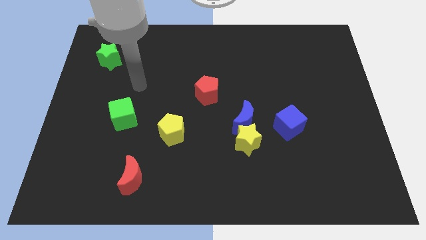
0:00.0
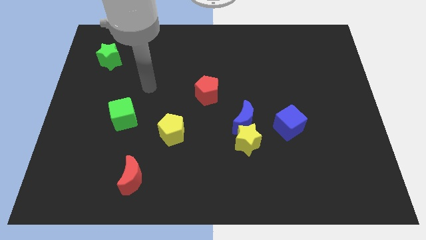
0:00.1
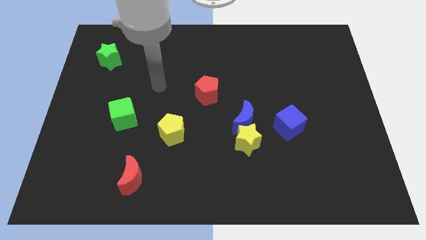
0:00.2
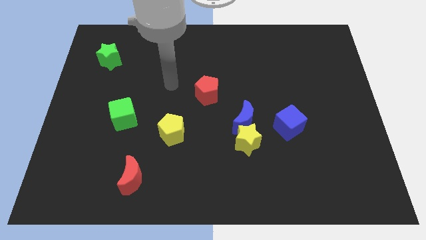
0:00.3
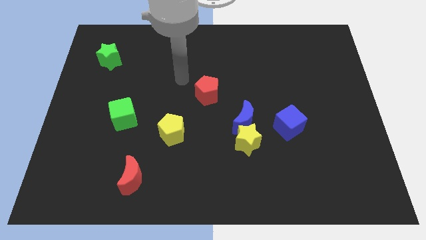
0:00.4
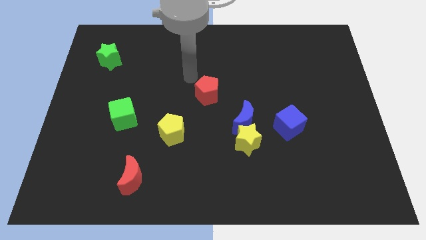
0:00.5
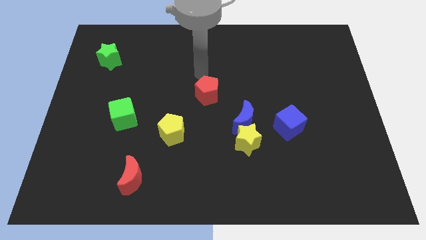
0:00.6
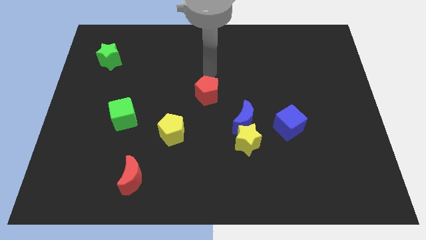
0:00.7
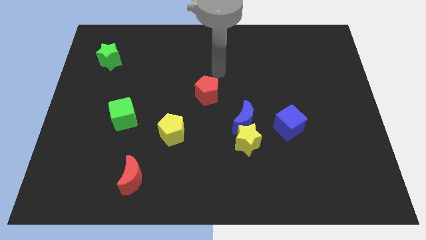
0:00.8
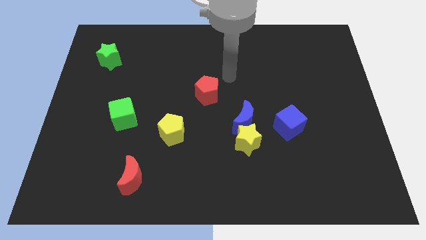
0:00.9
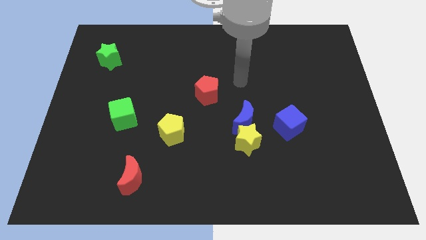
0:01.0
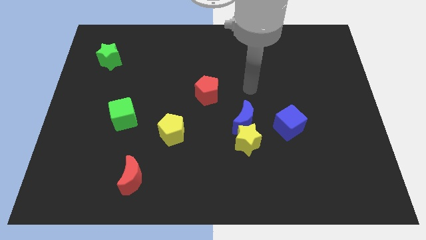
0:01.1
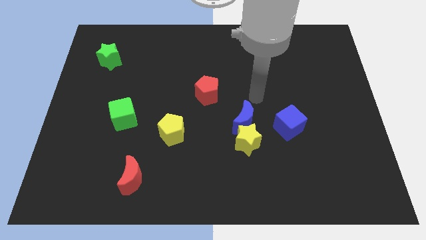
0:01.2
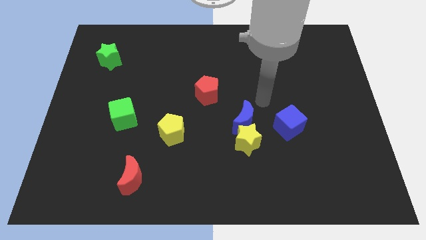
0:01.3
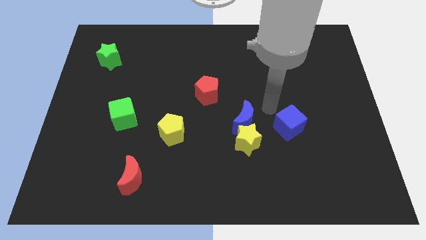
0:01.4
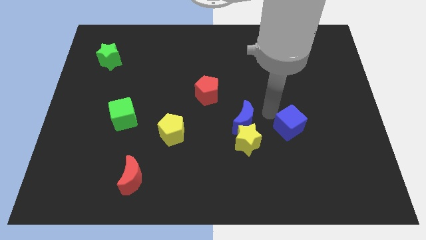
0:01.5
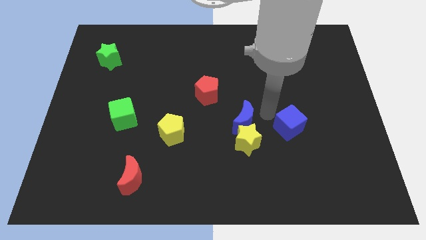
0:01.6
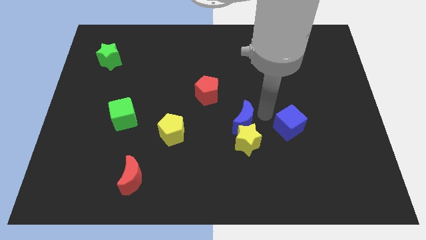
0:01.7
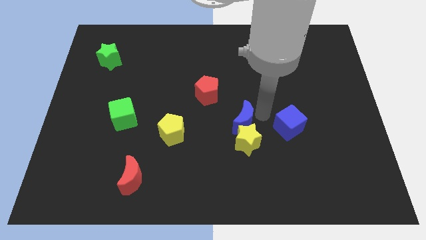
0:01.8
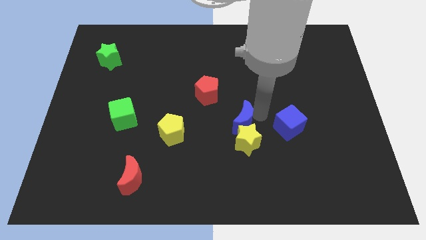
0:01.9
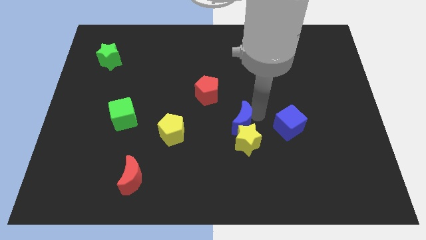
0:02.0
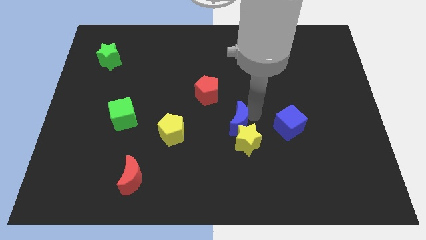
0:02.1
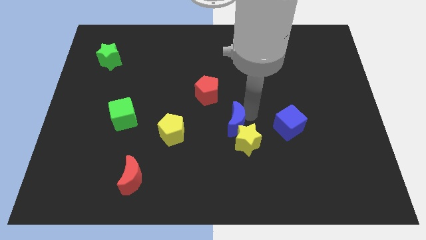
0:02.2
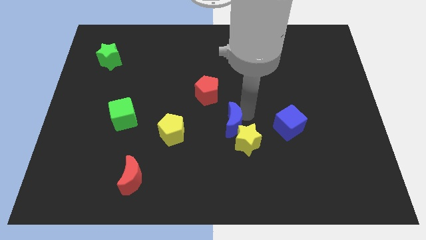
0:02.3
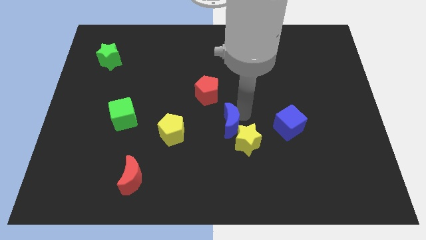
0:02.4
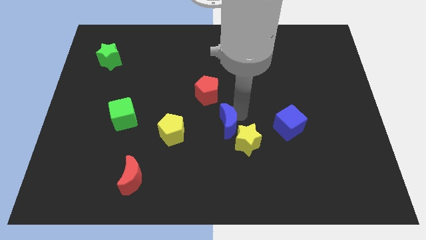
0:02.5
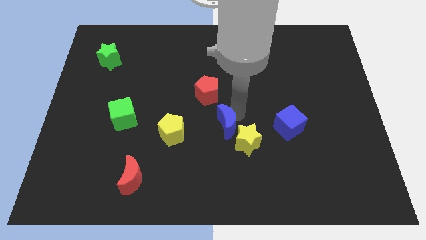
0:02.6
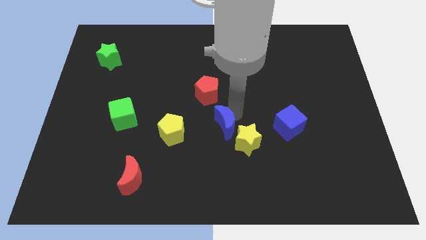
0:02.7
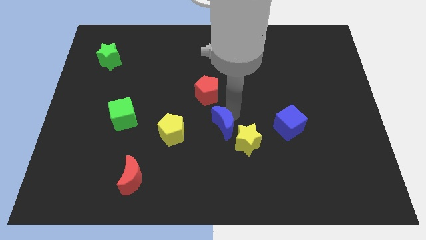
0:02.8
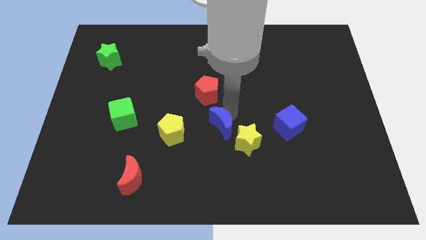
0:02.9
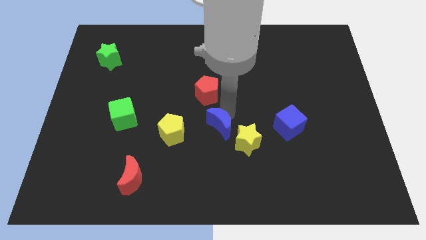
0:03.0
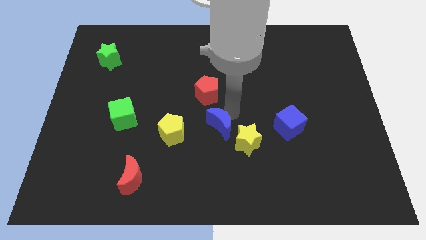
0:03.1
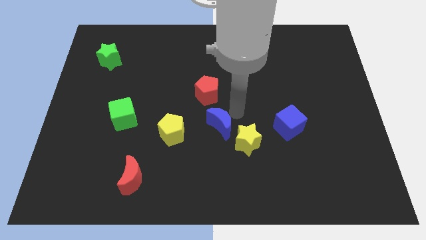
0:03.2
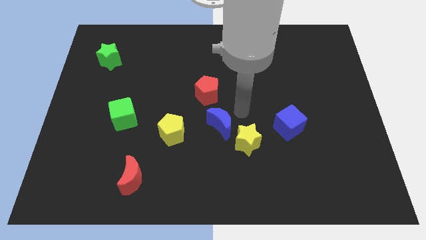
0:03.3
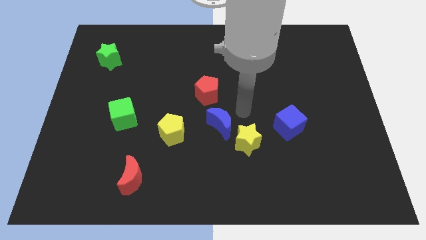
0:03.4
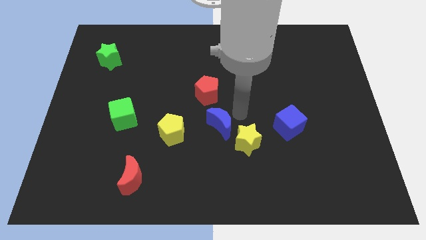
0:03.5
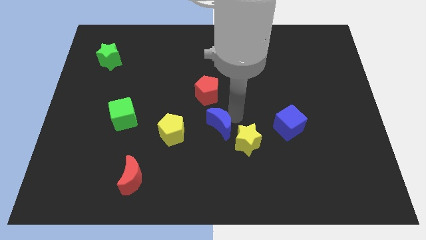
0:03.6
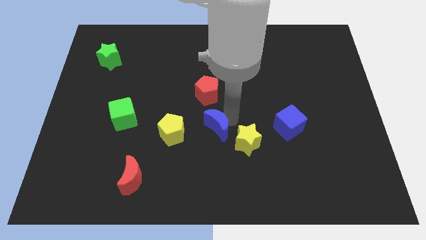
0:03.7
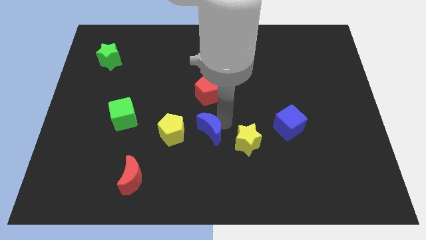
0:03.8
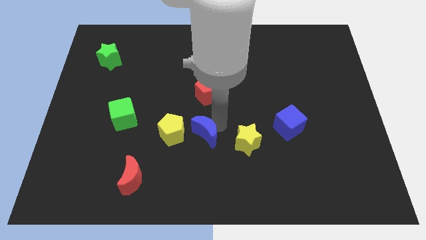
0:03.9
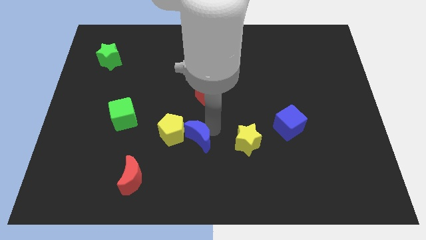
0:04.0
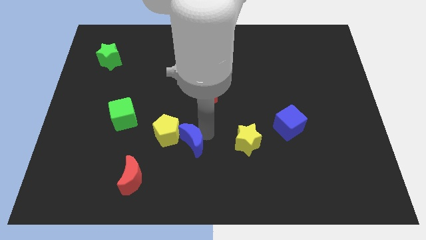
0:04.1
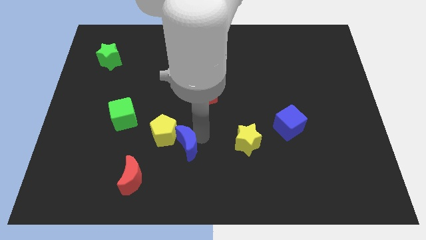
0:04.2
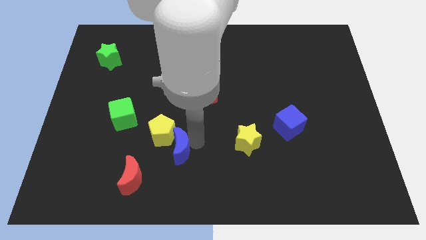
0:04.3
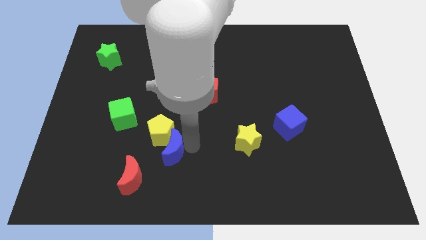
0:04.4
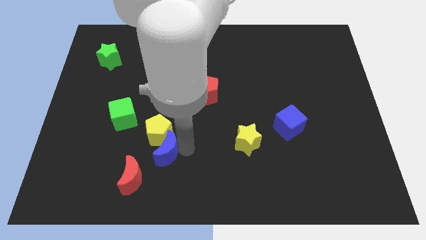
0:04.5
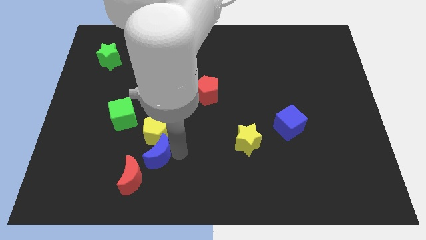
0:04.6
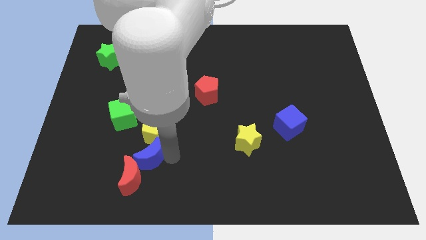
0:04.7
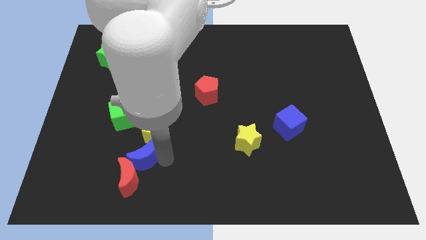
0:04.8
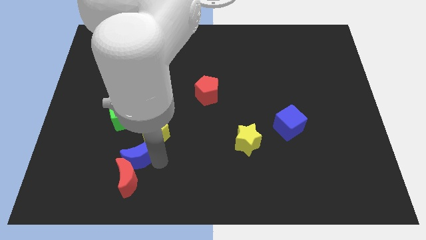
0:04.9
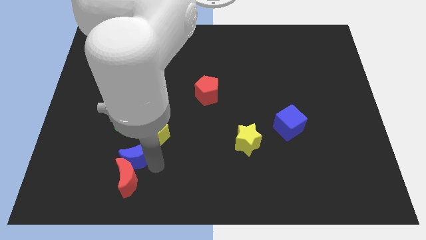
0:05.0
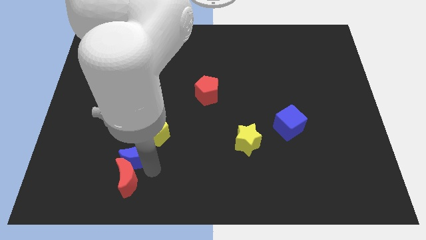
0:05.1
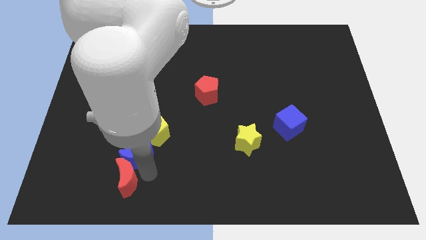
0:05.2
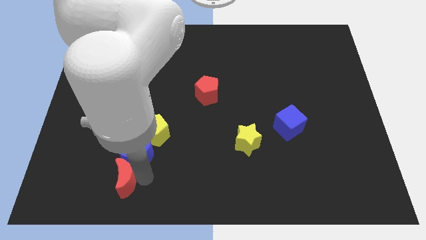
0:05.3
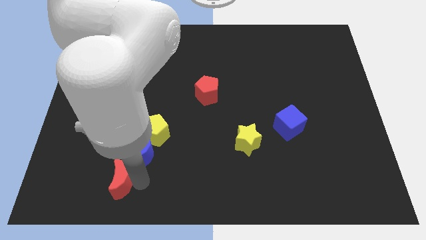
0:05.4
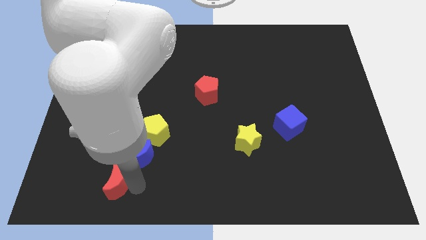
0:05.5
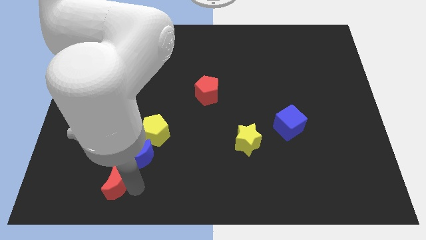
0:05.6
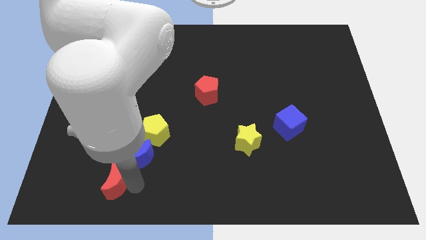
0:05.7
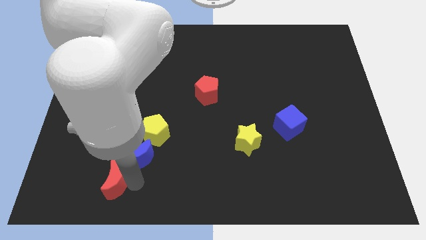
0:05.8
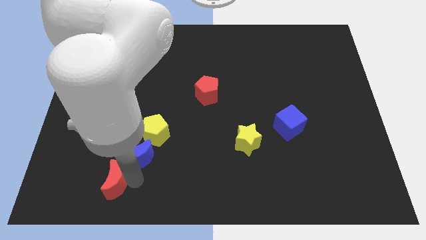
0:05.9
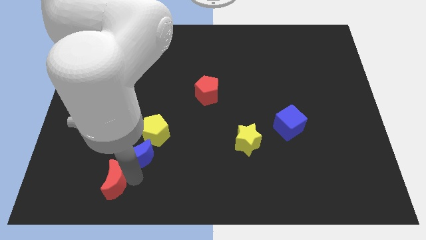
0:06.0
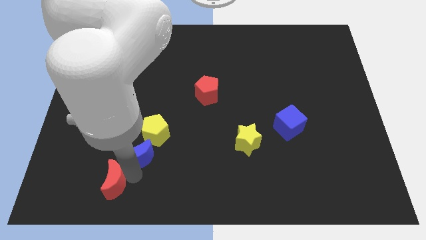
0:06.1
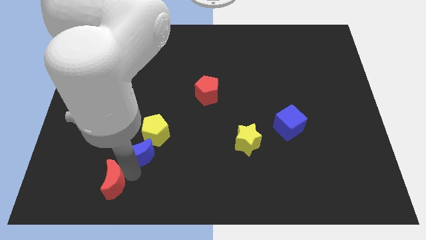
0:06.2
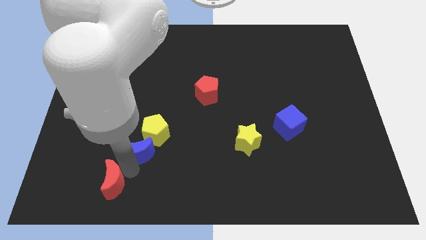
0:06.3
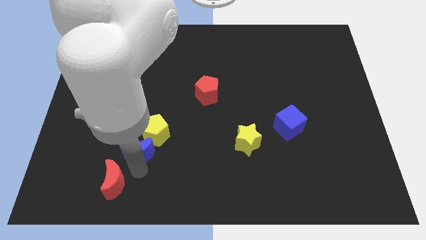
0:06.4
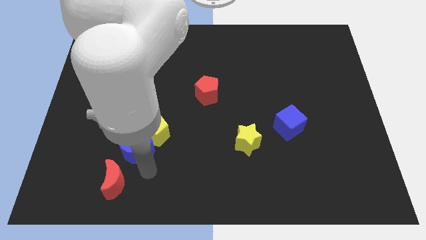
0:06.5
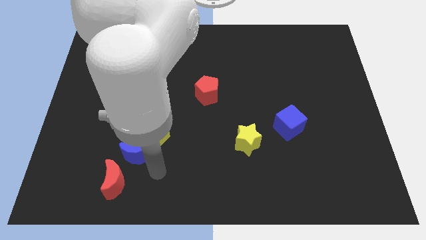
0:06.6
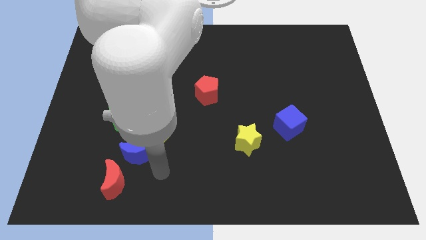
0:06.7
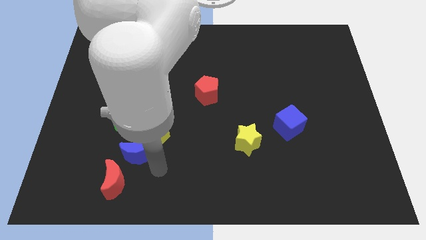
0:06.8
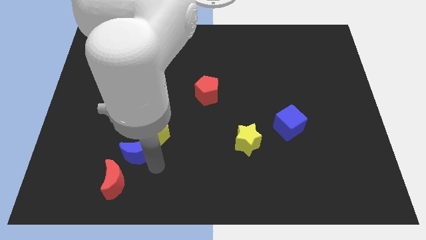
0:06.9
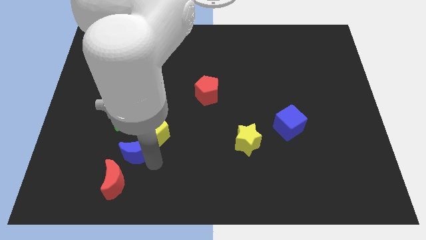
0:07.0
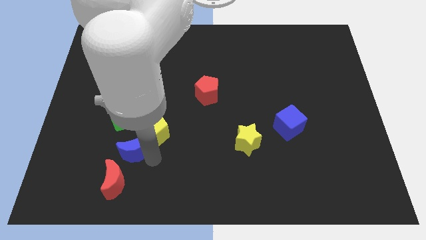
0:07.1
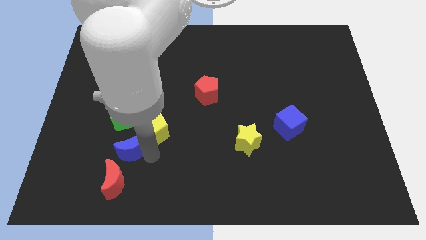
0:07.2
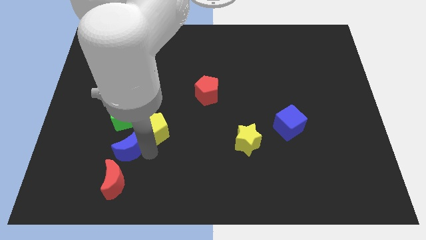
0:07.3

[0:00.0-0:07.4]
put the blue moon to the left of the yellow pentagon
